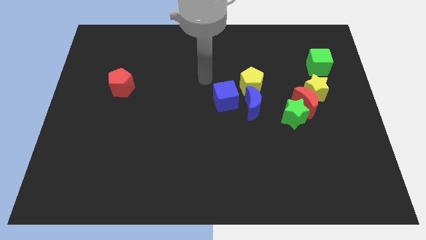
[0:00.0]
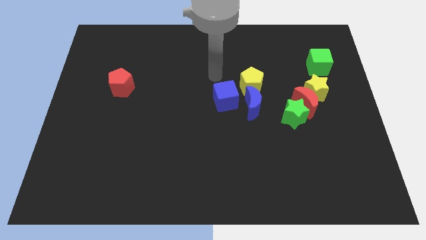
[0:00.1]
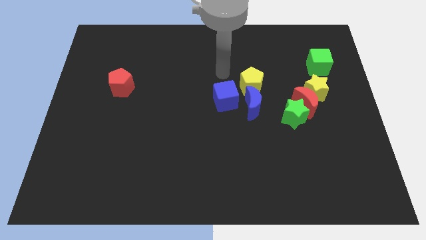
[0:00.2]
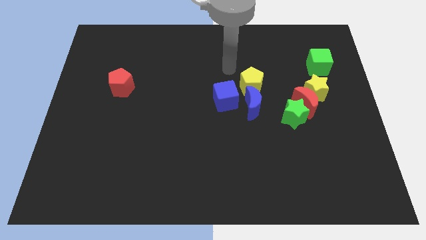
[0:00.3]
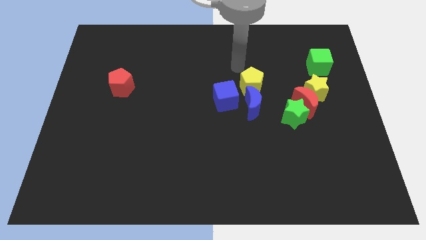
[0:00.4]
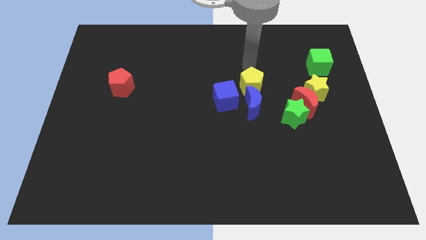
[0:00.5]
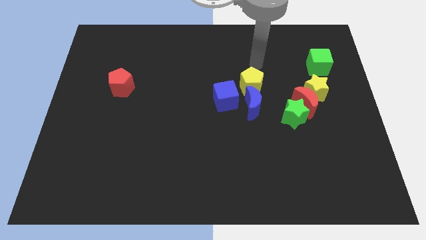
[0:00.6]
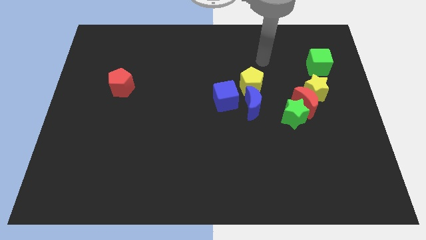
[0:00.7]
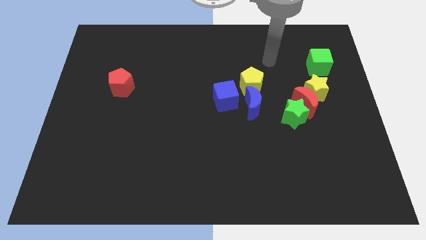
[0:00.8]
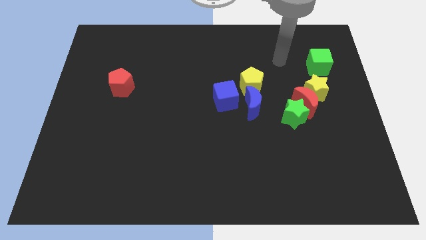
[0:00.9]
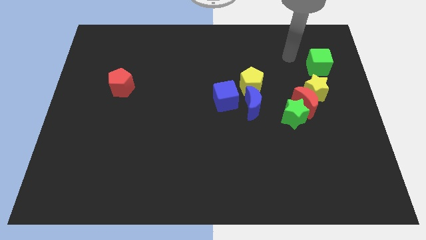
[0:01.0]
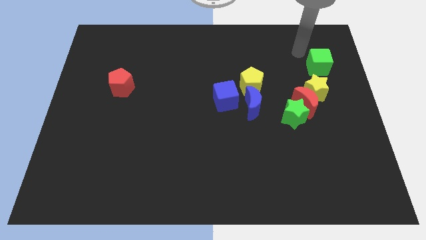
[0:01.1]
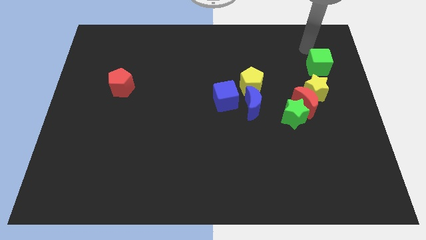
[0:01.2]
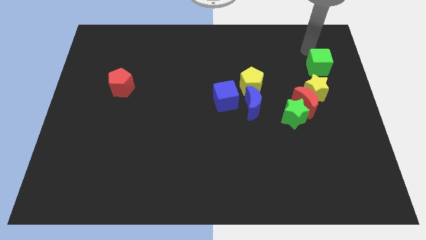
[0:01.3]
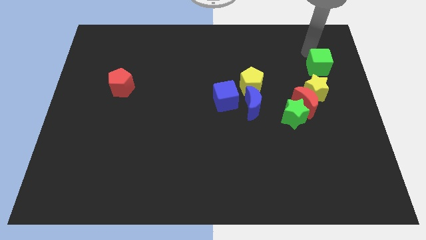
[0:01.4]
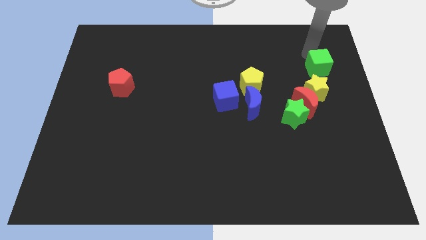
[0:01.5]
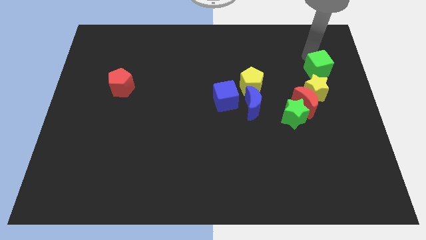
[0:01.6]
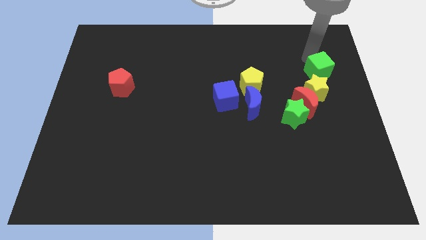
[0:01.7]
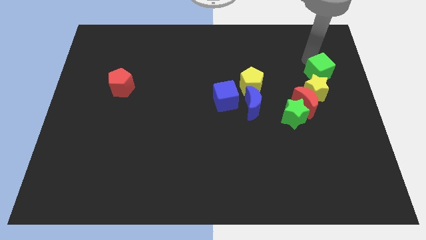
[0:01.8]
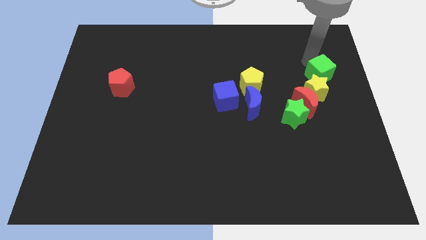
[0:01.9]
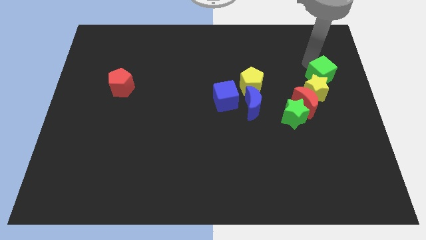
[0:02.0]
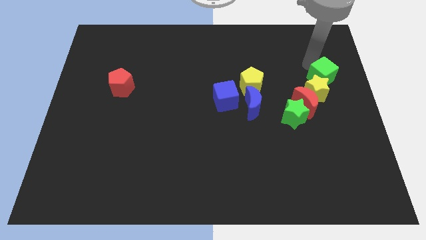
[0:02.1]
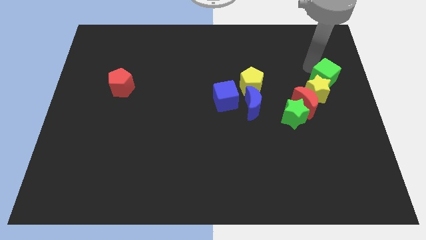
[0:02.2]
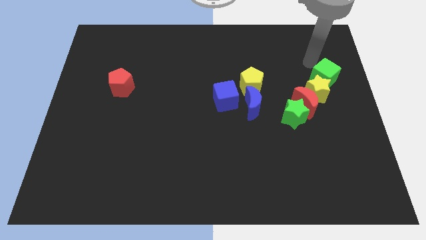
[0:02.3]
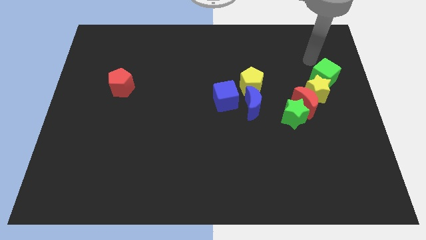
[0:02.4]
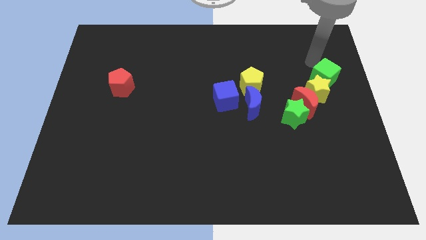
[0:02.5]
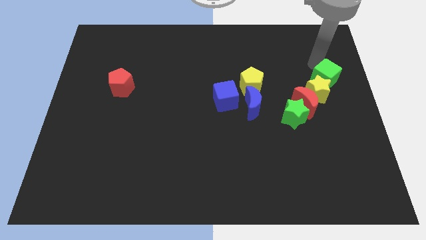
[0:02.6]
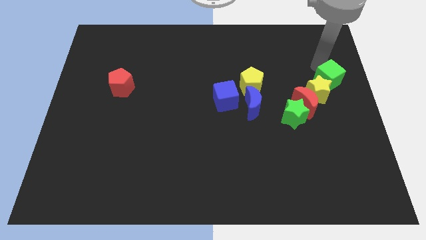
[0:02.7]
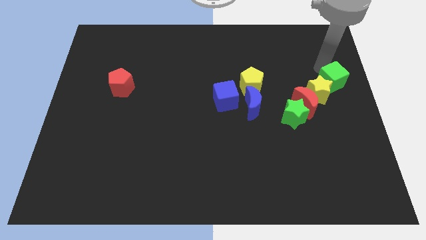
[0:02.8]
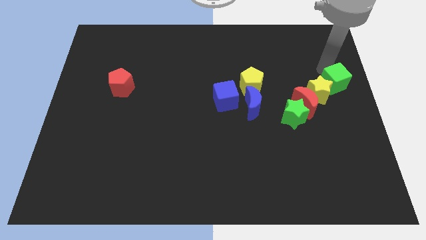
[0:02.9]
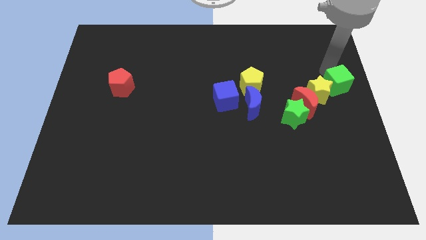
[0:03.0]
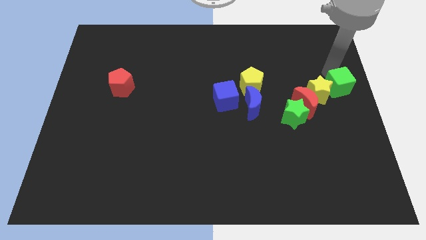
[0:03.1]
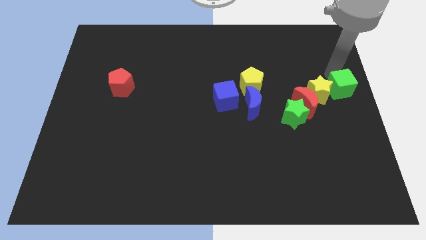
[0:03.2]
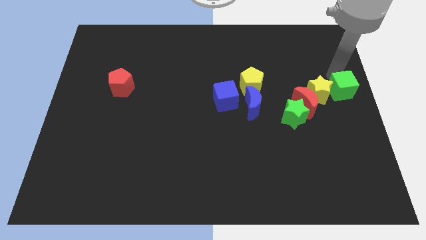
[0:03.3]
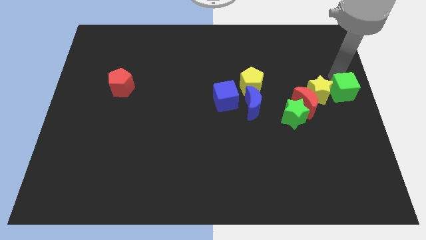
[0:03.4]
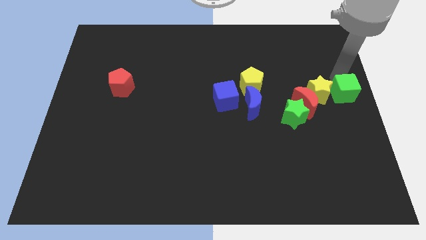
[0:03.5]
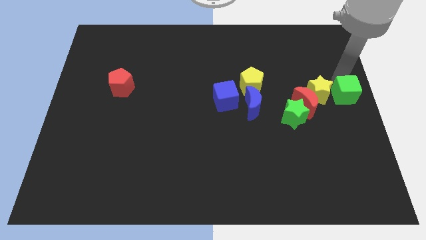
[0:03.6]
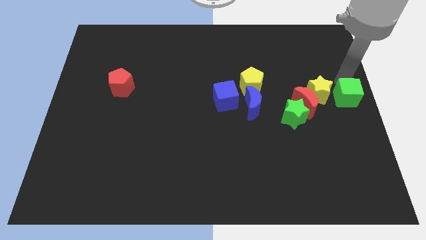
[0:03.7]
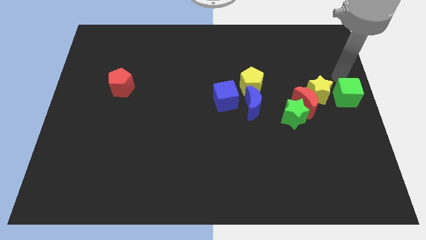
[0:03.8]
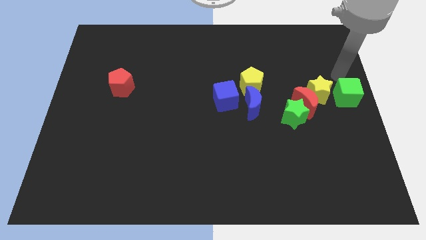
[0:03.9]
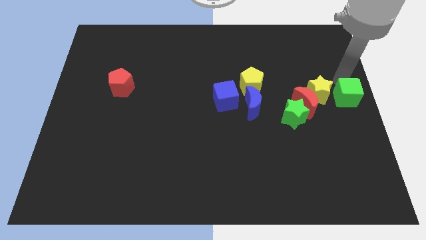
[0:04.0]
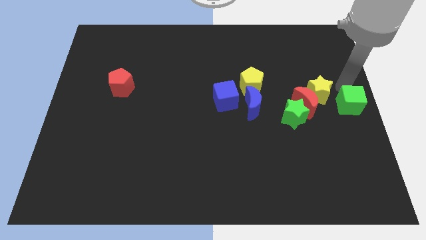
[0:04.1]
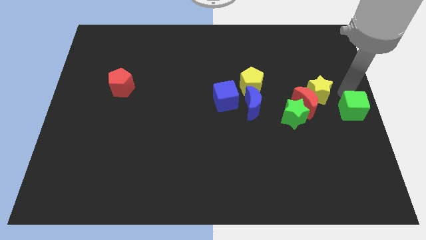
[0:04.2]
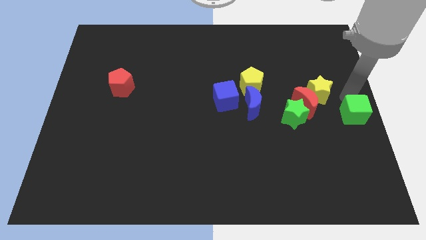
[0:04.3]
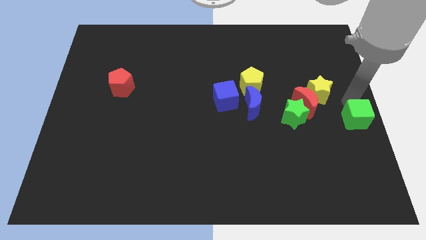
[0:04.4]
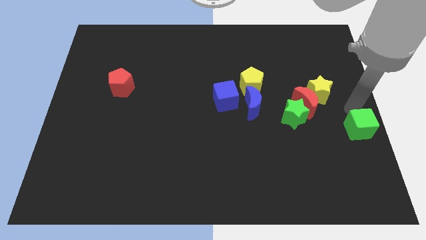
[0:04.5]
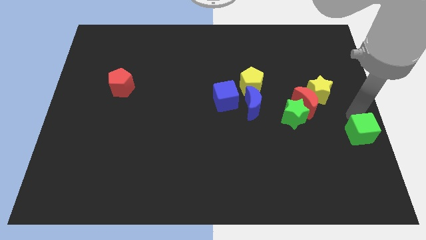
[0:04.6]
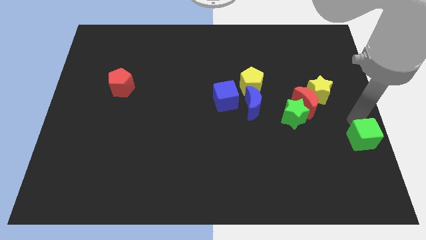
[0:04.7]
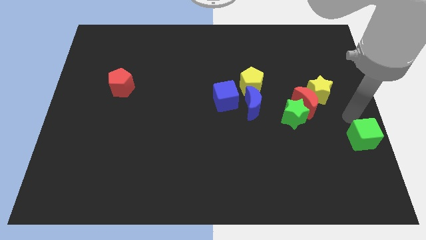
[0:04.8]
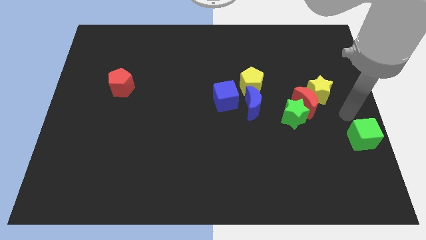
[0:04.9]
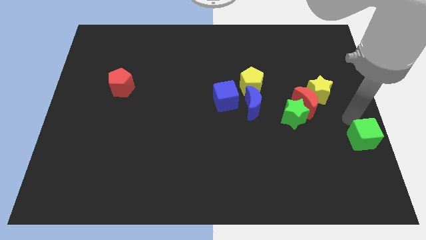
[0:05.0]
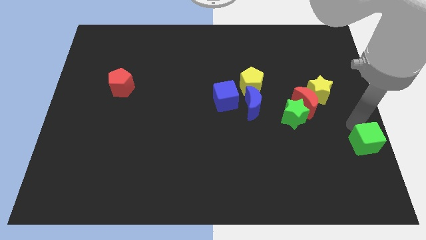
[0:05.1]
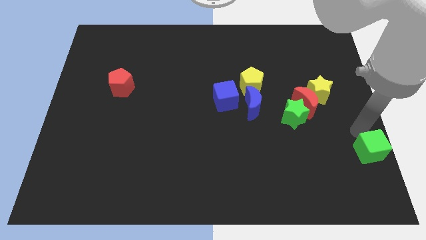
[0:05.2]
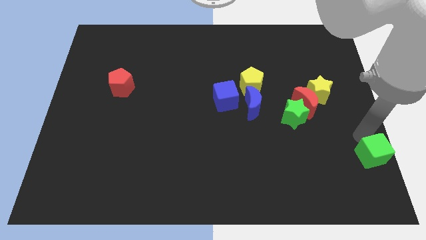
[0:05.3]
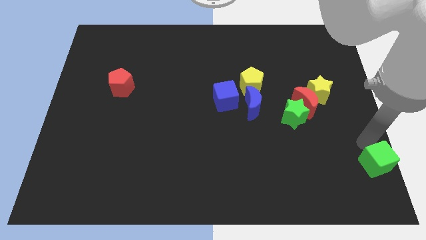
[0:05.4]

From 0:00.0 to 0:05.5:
put the green cube to the lower right corner

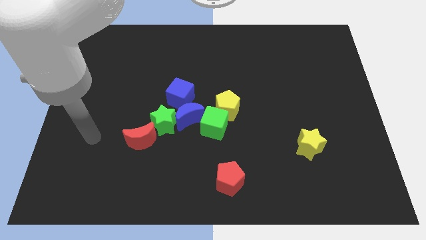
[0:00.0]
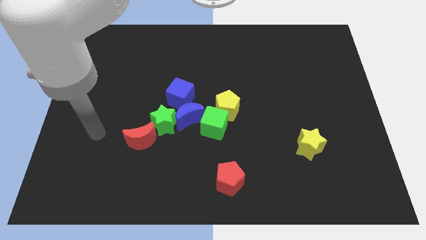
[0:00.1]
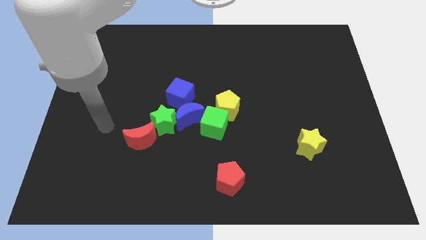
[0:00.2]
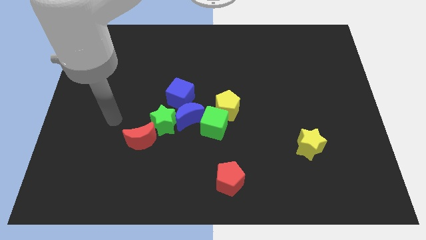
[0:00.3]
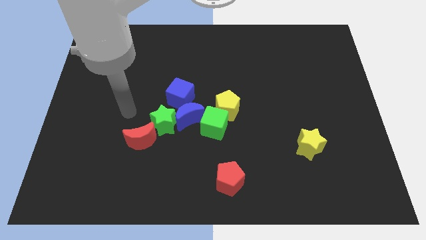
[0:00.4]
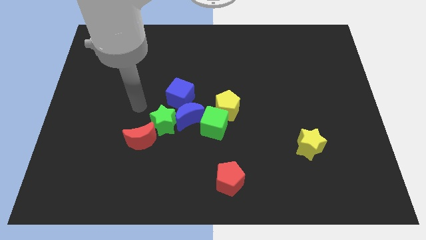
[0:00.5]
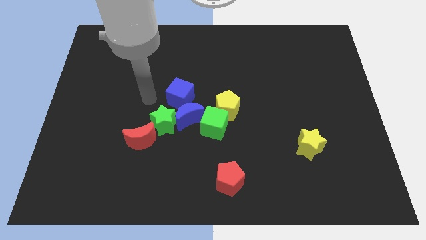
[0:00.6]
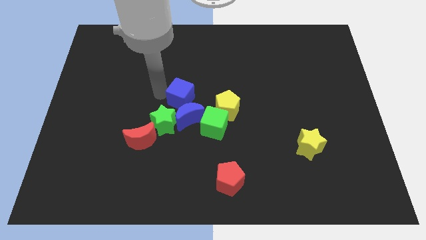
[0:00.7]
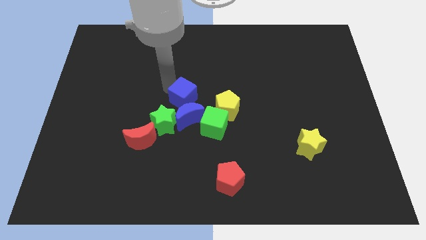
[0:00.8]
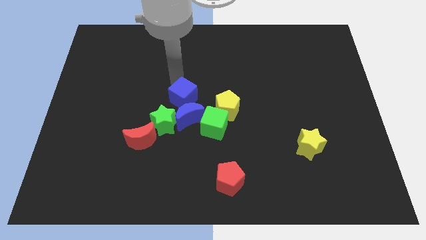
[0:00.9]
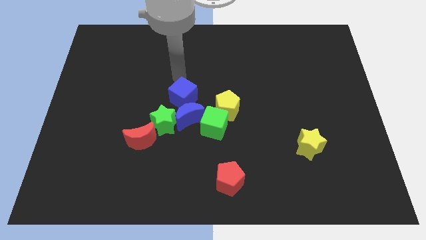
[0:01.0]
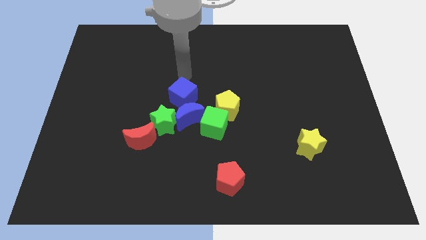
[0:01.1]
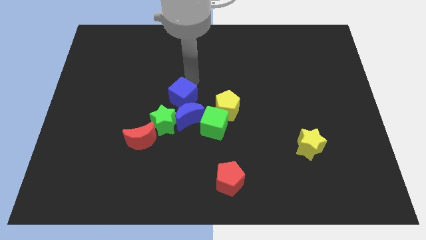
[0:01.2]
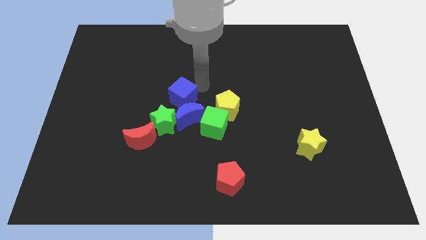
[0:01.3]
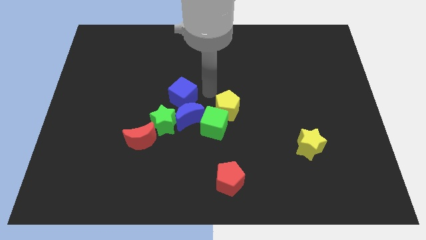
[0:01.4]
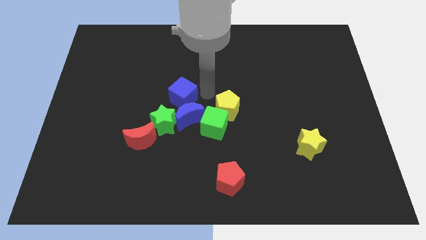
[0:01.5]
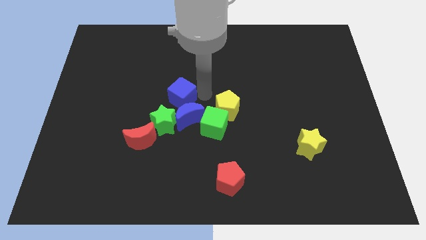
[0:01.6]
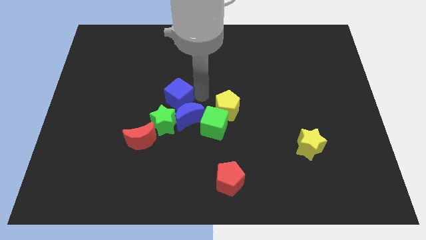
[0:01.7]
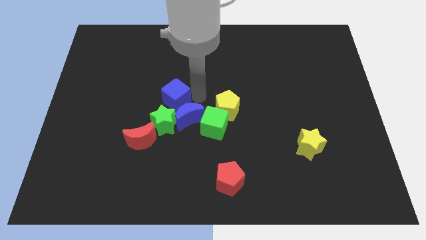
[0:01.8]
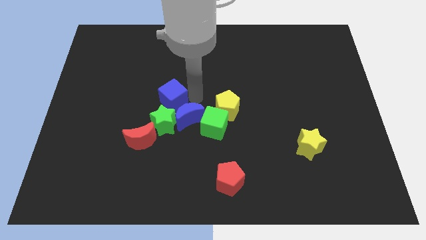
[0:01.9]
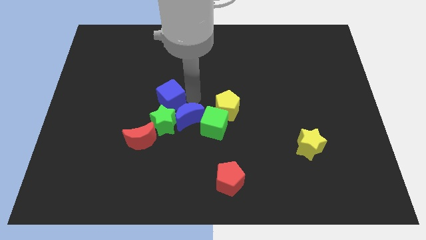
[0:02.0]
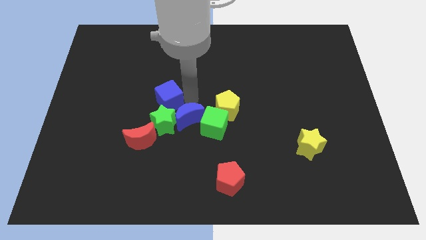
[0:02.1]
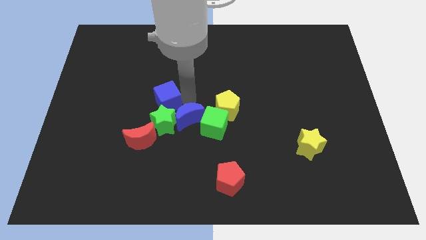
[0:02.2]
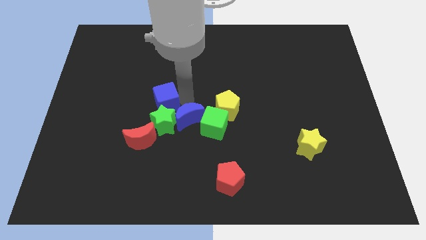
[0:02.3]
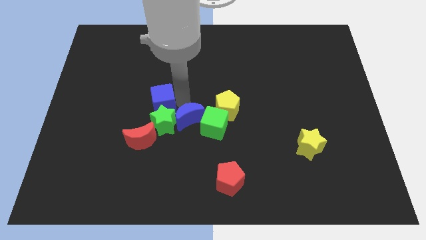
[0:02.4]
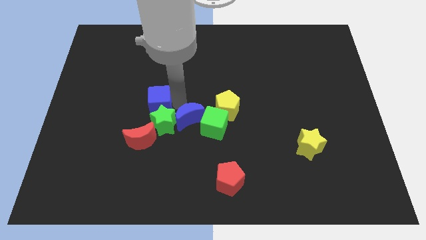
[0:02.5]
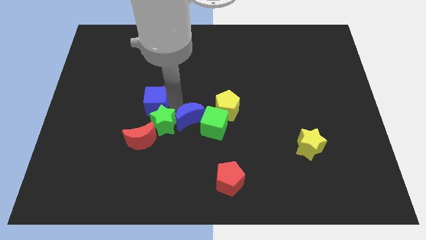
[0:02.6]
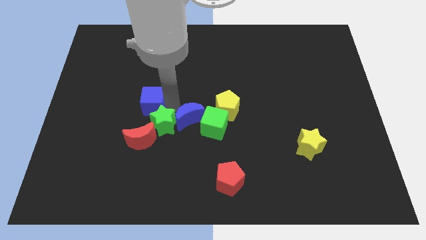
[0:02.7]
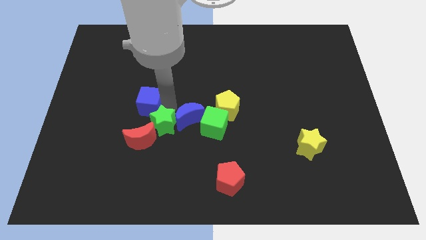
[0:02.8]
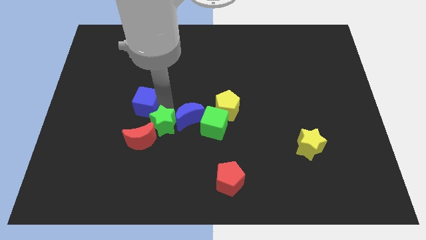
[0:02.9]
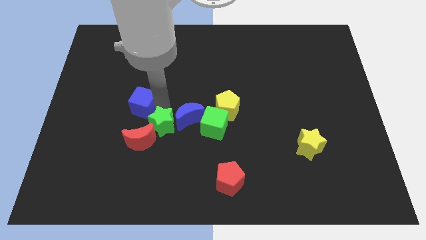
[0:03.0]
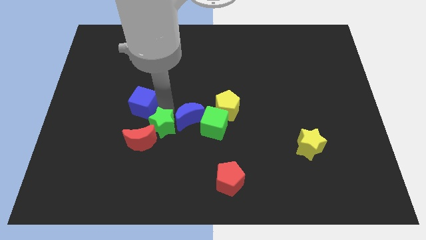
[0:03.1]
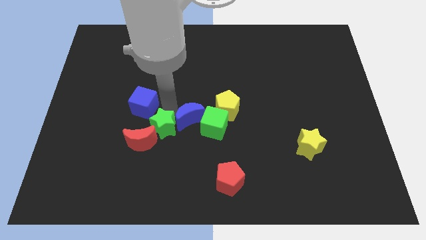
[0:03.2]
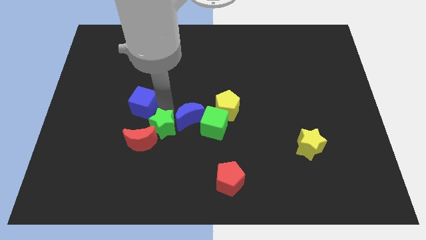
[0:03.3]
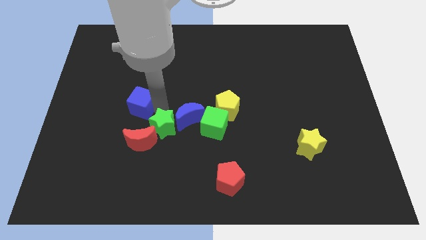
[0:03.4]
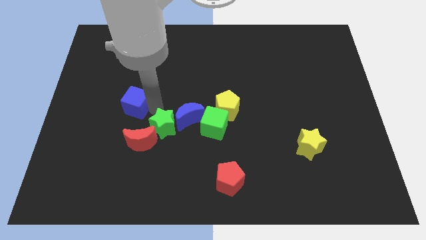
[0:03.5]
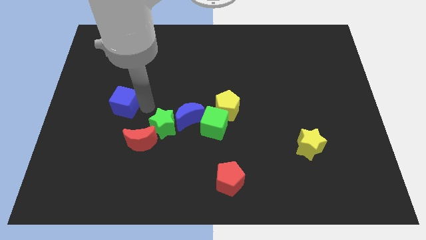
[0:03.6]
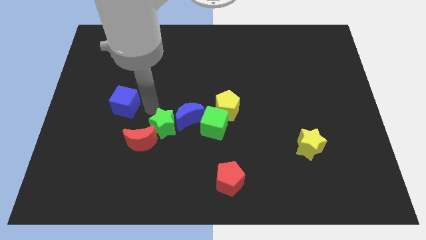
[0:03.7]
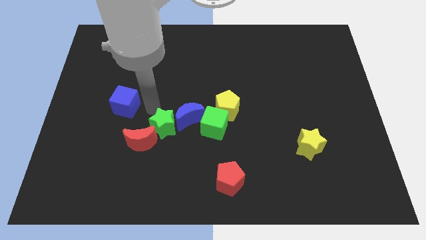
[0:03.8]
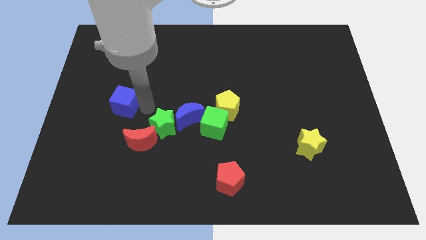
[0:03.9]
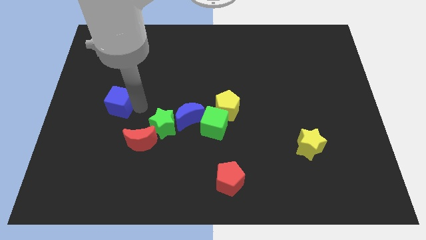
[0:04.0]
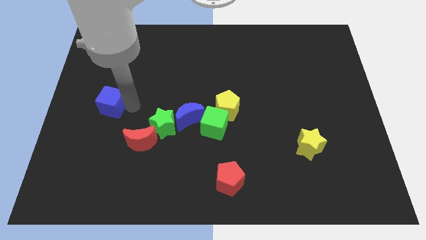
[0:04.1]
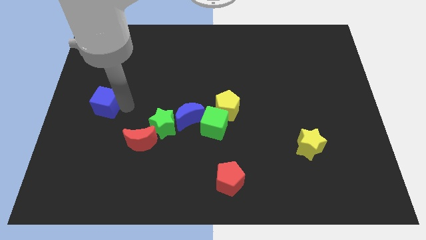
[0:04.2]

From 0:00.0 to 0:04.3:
push the blue cube to the left side
